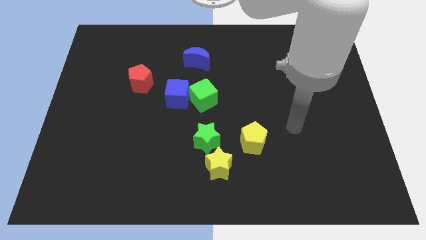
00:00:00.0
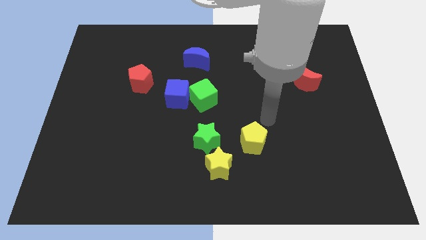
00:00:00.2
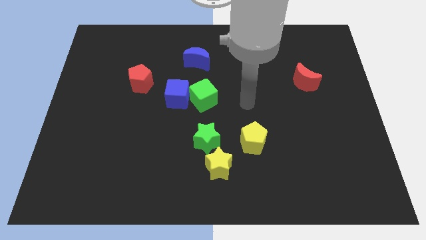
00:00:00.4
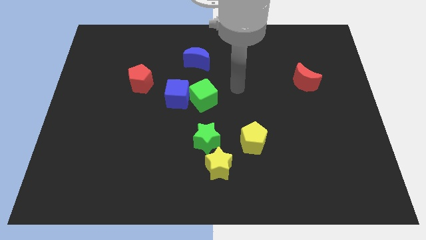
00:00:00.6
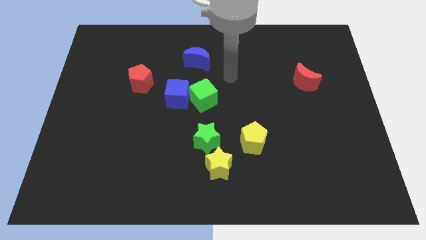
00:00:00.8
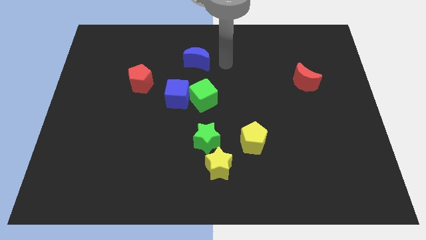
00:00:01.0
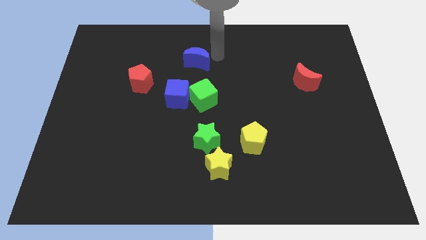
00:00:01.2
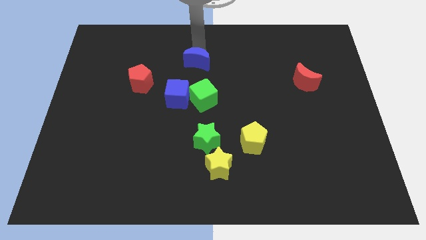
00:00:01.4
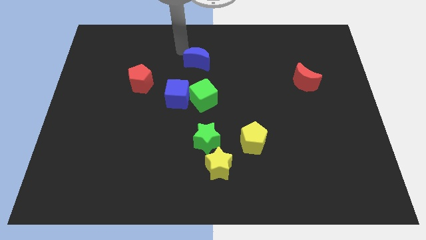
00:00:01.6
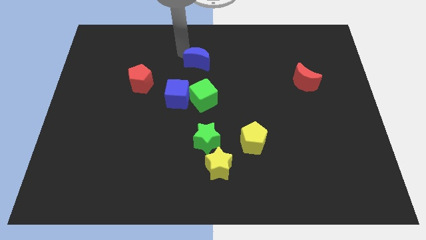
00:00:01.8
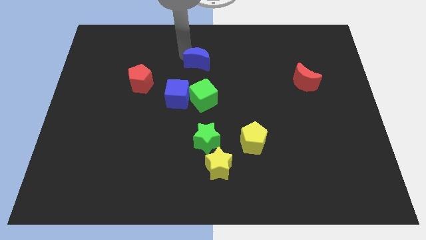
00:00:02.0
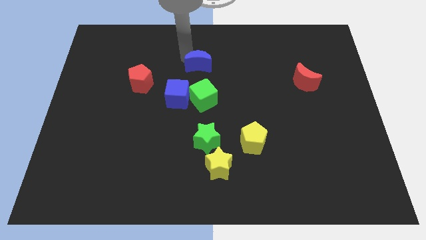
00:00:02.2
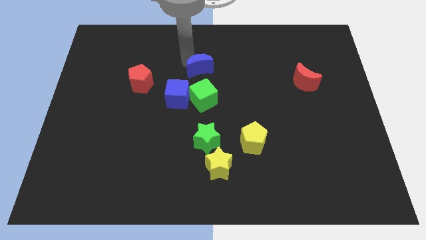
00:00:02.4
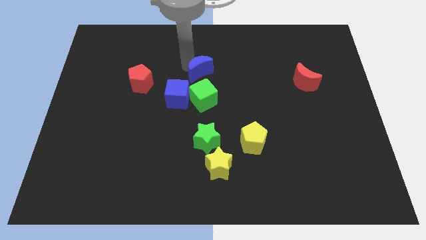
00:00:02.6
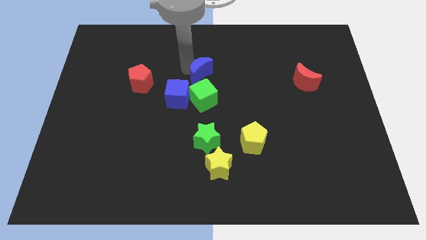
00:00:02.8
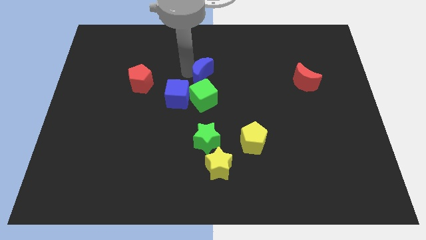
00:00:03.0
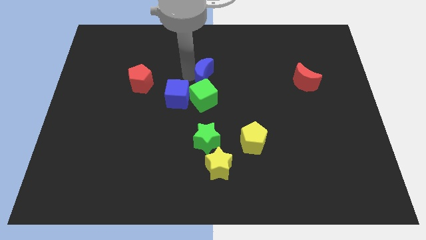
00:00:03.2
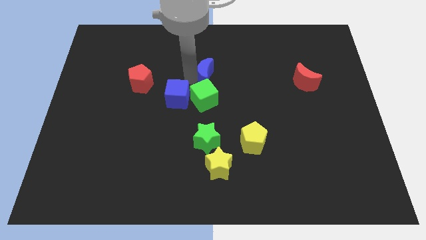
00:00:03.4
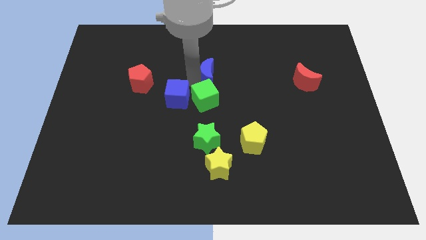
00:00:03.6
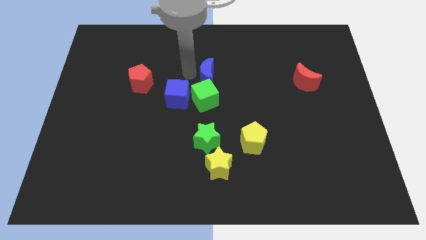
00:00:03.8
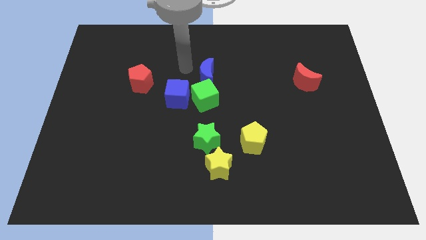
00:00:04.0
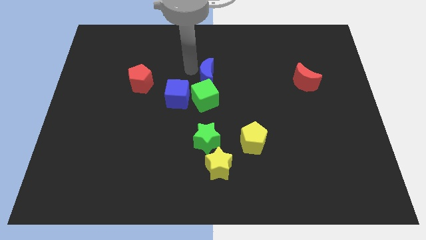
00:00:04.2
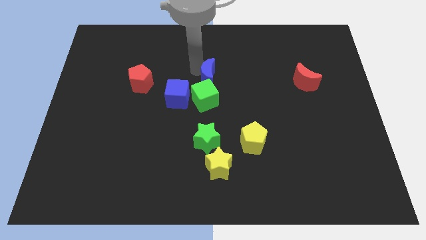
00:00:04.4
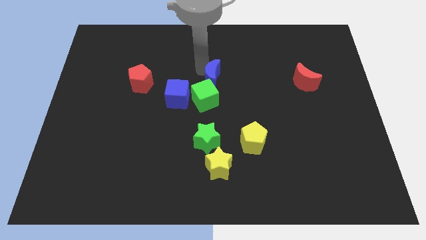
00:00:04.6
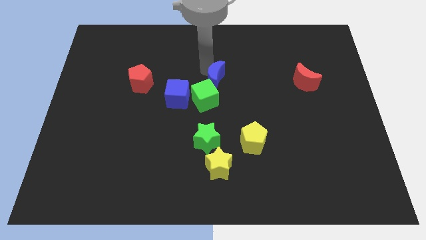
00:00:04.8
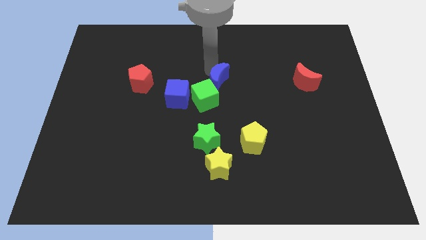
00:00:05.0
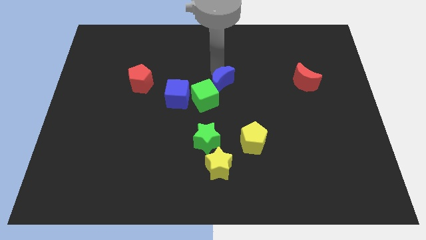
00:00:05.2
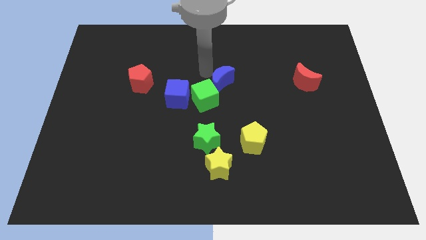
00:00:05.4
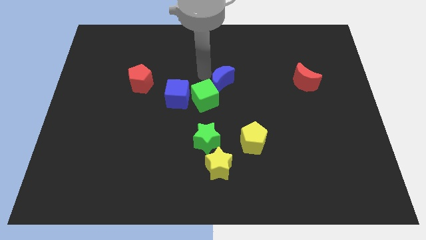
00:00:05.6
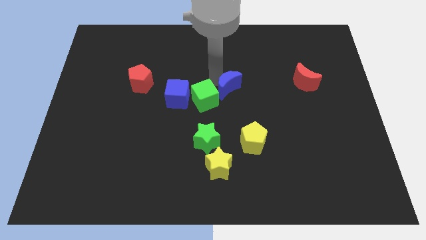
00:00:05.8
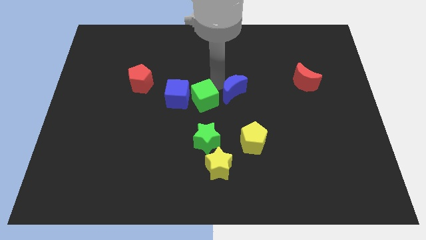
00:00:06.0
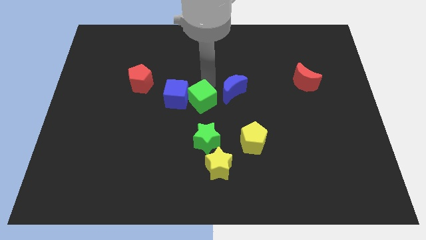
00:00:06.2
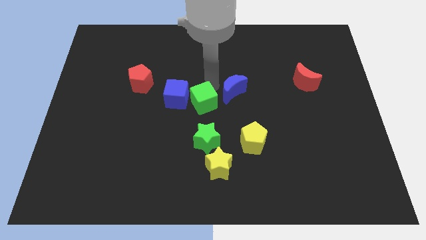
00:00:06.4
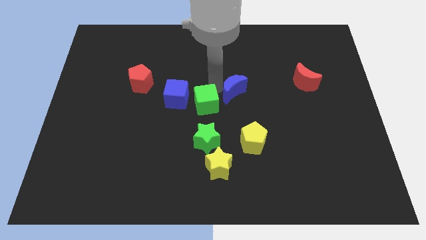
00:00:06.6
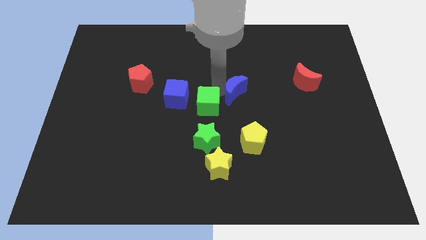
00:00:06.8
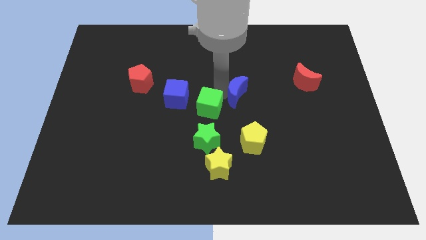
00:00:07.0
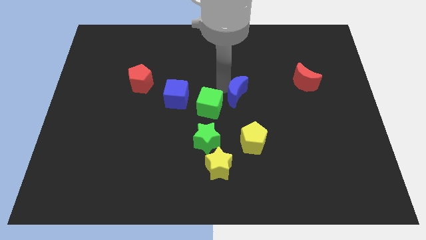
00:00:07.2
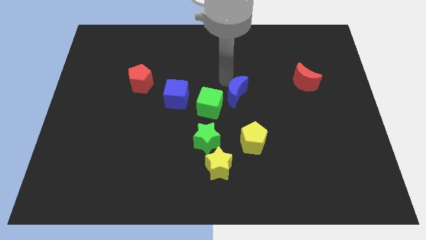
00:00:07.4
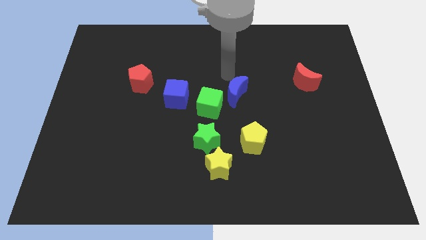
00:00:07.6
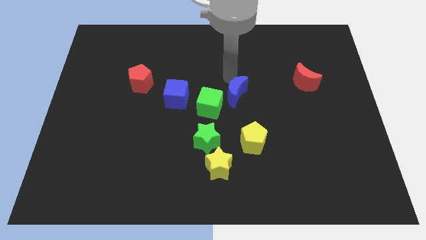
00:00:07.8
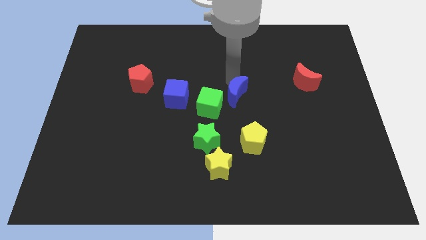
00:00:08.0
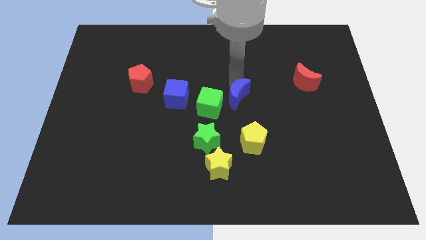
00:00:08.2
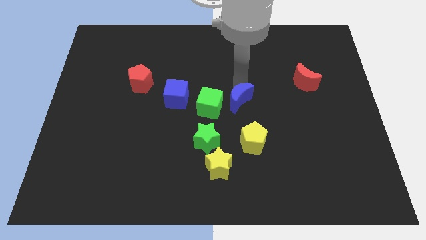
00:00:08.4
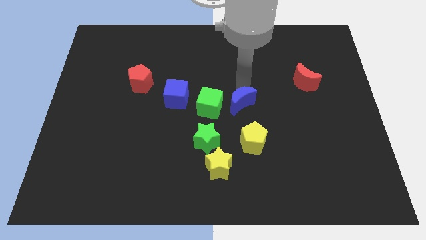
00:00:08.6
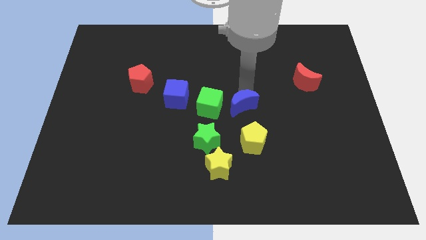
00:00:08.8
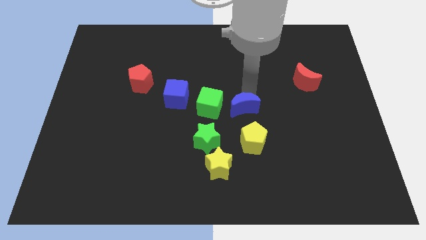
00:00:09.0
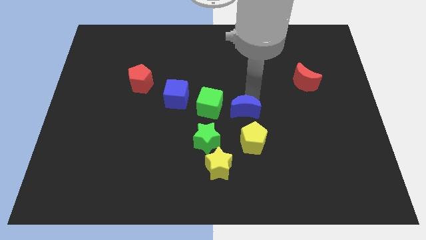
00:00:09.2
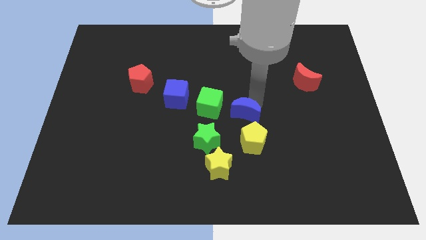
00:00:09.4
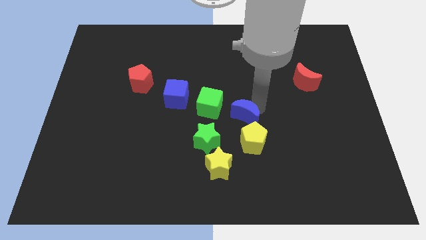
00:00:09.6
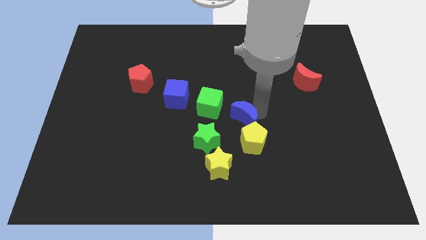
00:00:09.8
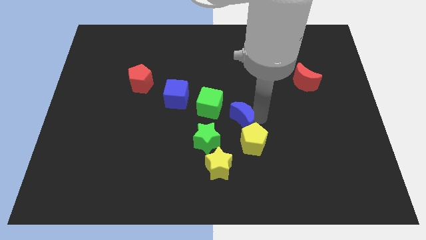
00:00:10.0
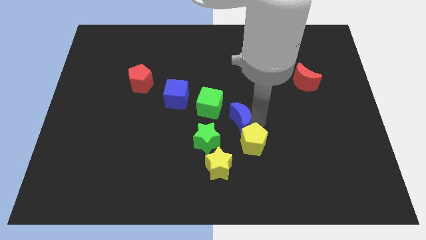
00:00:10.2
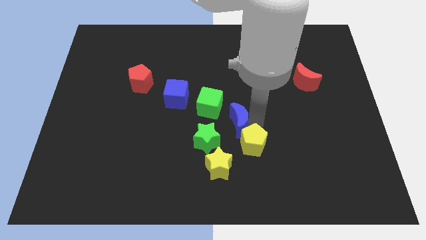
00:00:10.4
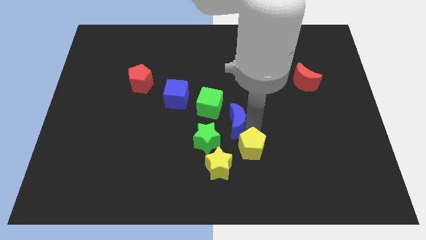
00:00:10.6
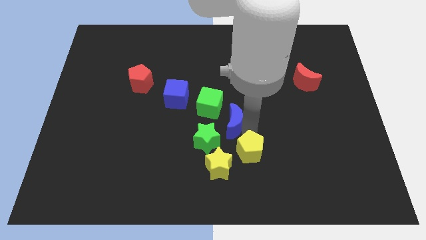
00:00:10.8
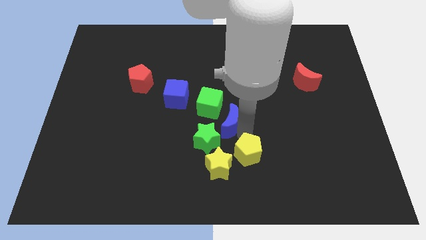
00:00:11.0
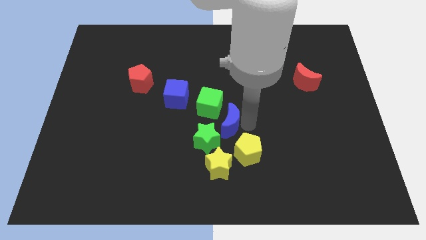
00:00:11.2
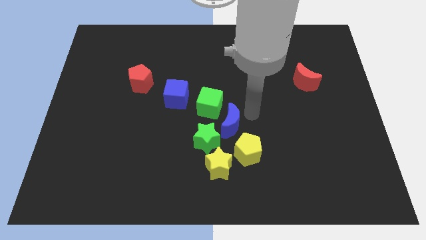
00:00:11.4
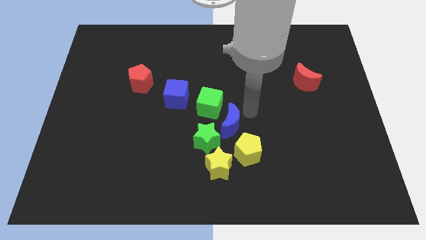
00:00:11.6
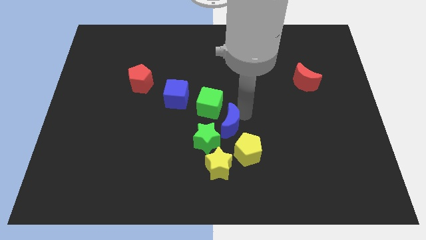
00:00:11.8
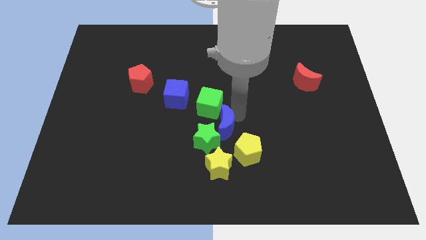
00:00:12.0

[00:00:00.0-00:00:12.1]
slide the blue moon close to the green star
